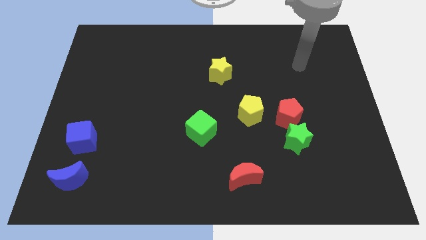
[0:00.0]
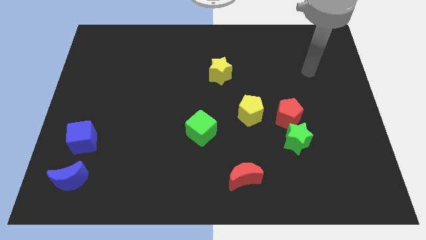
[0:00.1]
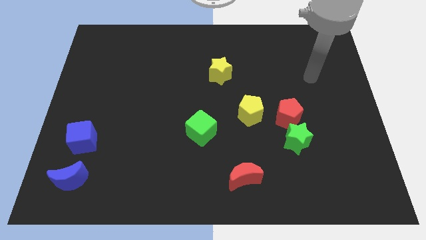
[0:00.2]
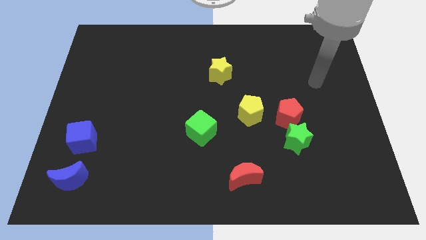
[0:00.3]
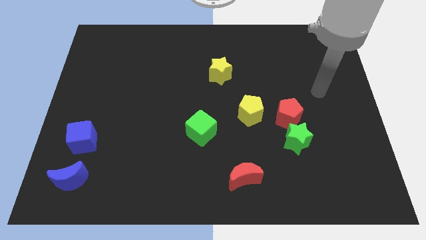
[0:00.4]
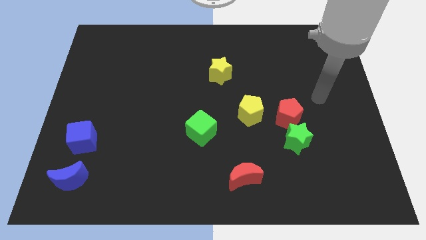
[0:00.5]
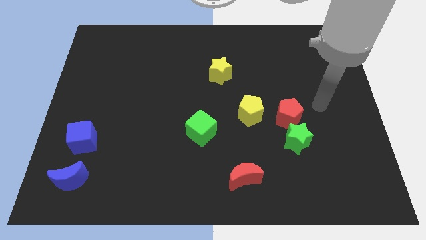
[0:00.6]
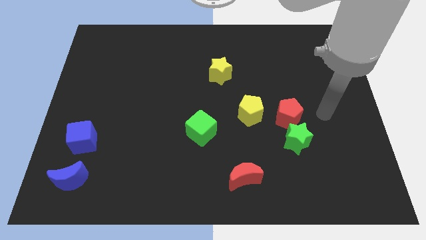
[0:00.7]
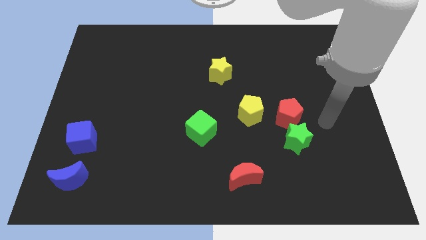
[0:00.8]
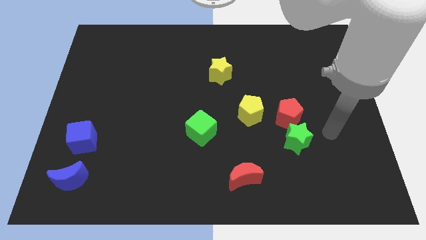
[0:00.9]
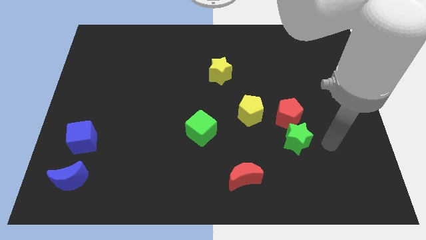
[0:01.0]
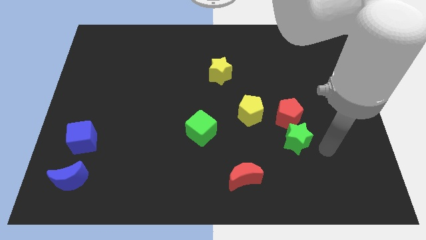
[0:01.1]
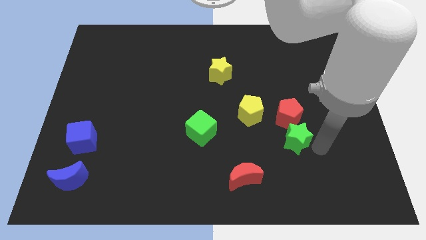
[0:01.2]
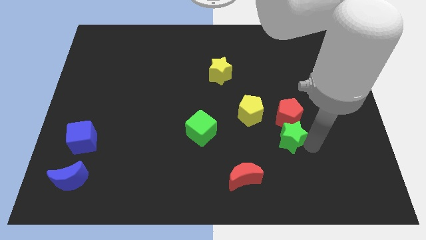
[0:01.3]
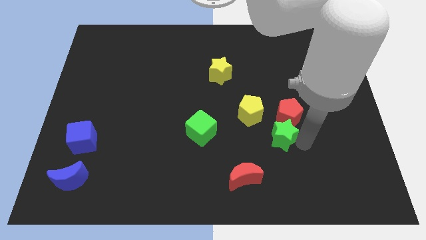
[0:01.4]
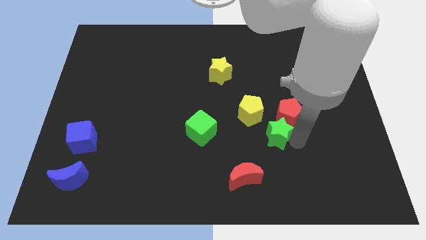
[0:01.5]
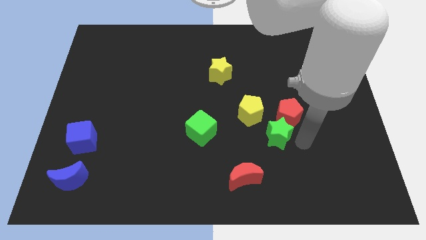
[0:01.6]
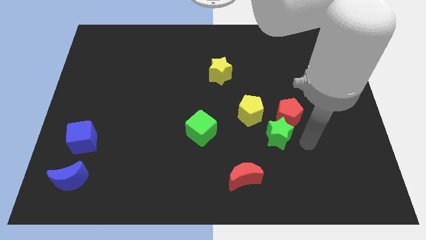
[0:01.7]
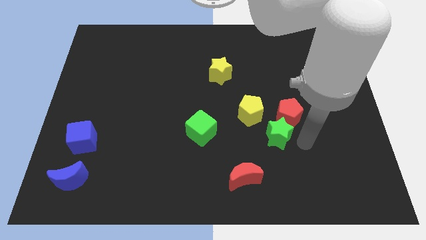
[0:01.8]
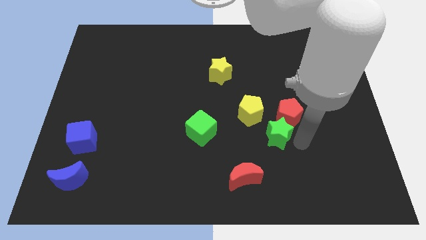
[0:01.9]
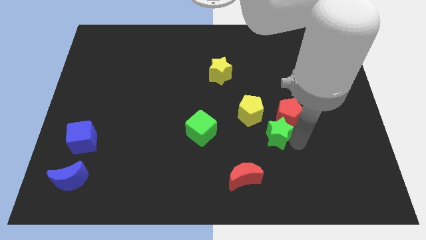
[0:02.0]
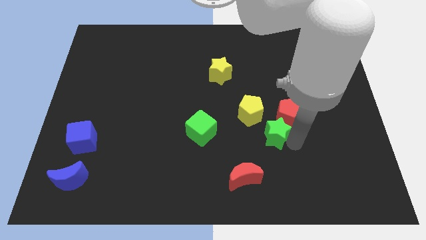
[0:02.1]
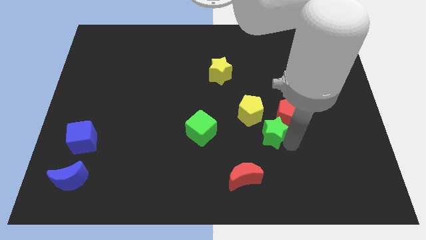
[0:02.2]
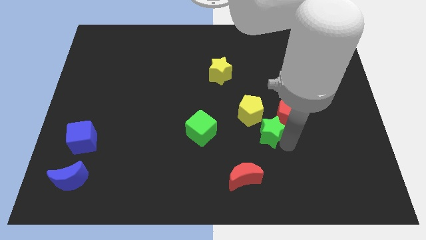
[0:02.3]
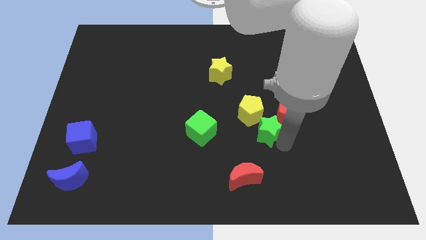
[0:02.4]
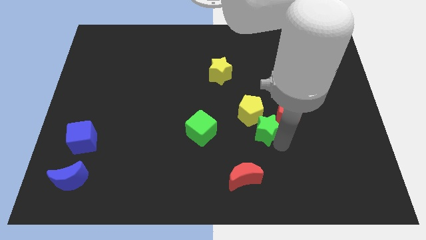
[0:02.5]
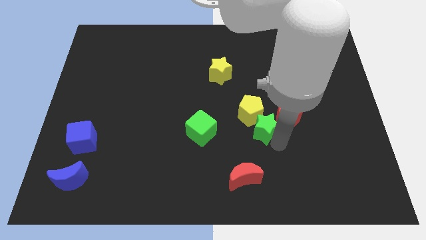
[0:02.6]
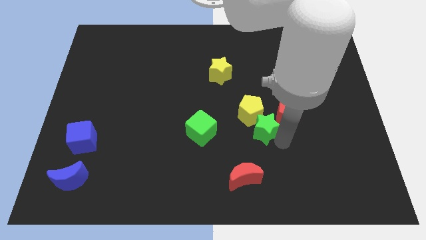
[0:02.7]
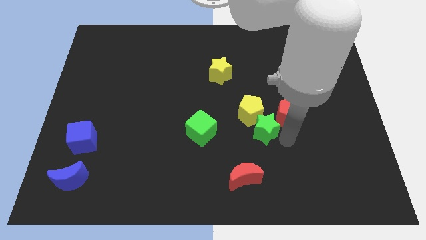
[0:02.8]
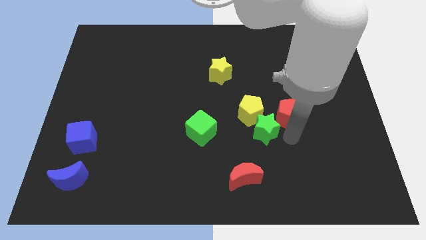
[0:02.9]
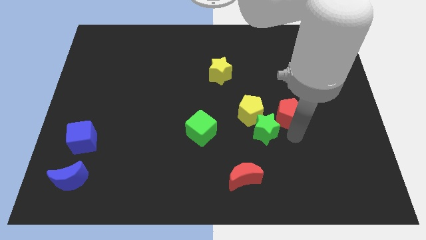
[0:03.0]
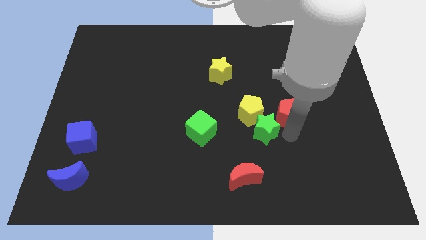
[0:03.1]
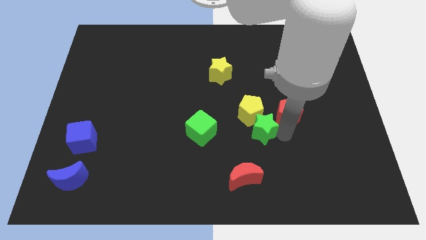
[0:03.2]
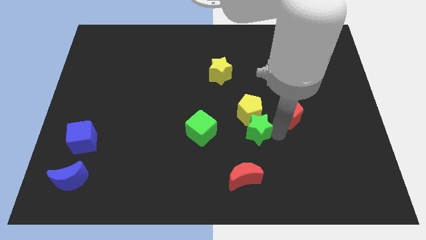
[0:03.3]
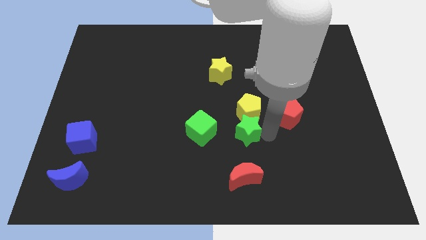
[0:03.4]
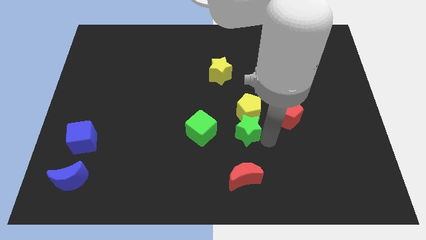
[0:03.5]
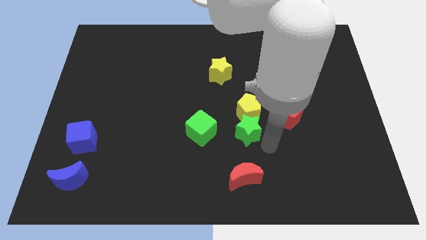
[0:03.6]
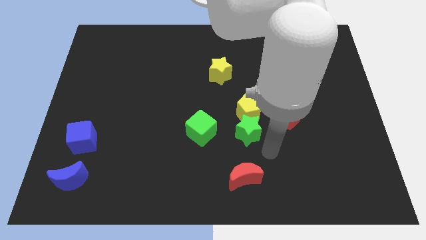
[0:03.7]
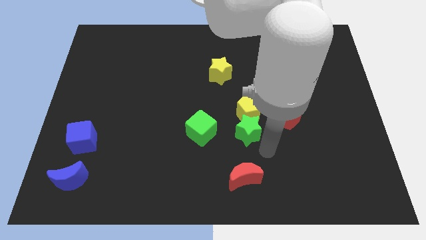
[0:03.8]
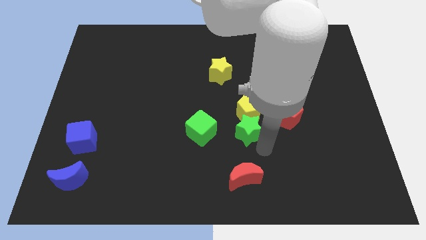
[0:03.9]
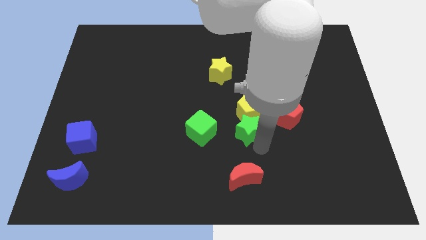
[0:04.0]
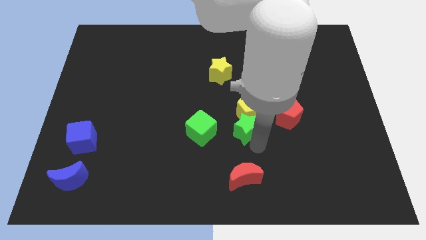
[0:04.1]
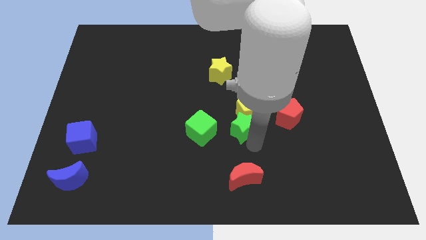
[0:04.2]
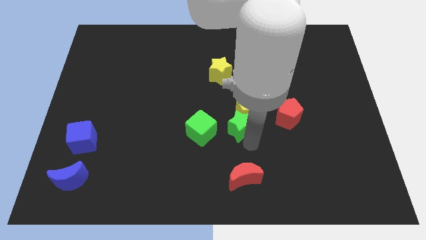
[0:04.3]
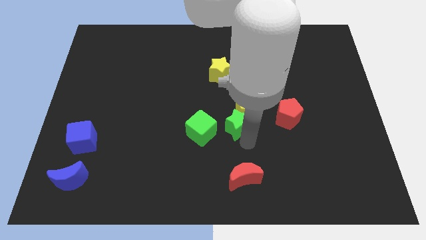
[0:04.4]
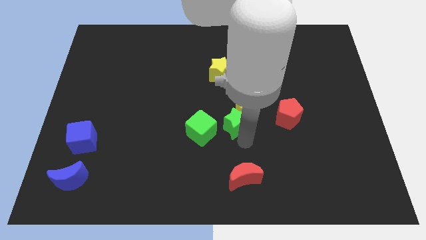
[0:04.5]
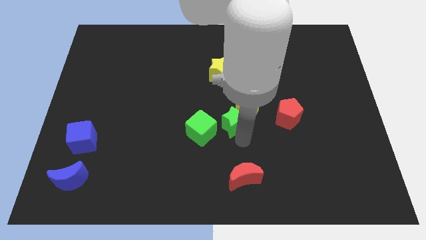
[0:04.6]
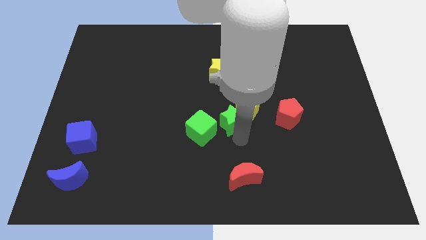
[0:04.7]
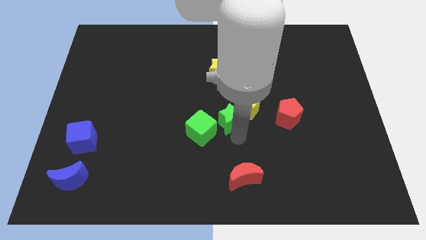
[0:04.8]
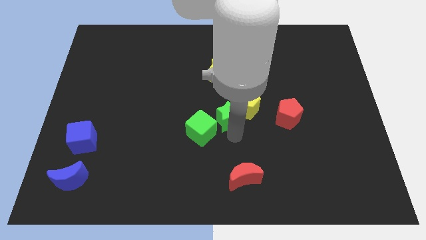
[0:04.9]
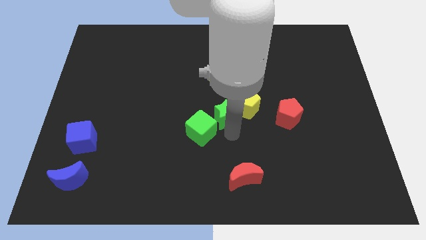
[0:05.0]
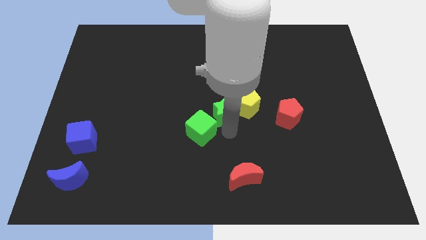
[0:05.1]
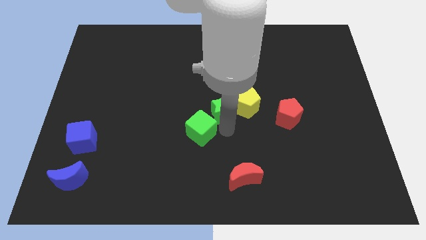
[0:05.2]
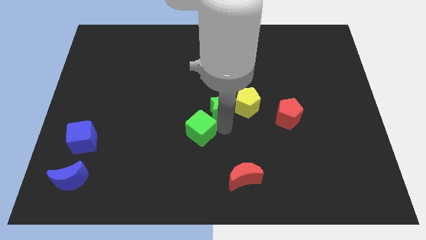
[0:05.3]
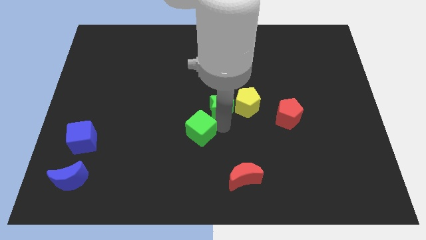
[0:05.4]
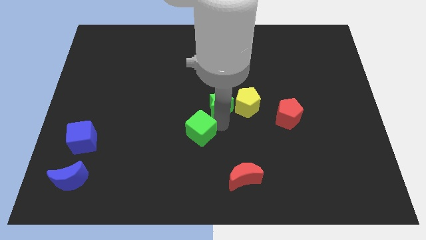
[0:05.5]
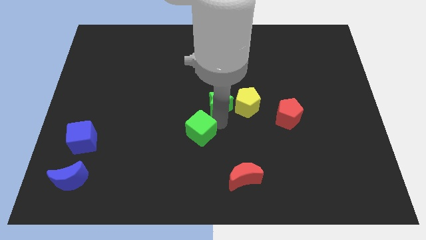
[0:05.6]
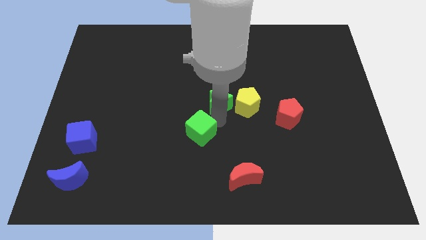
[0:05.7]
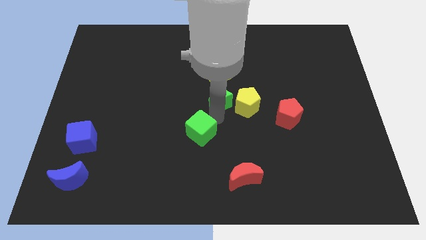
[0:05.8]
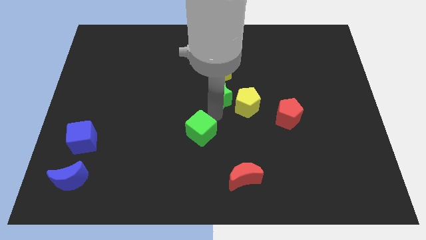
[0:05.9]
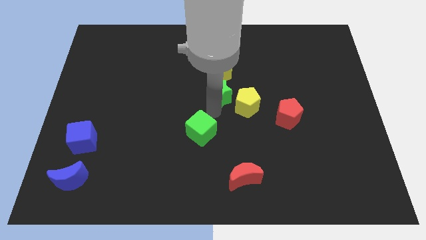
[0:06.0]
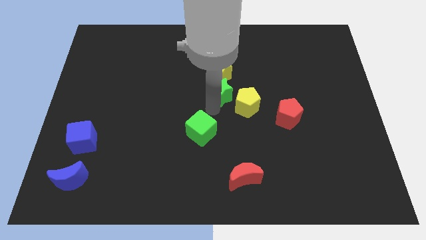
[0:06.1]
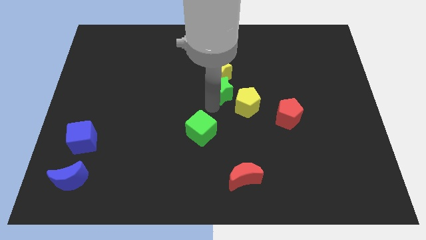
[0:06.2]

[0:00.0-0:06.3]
move the green star to the yellow star

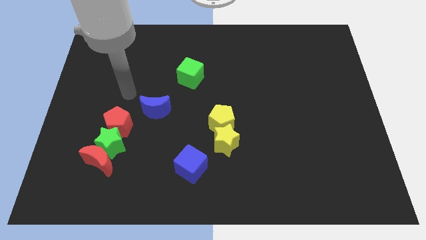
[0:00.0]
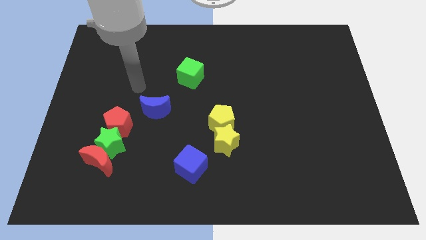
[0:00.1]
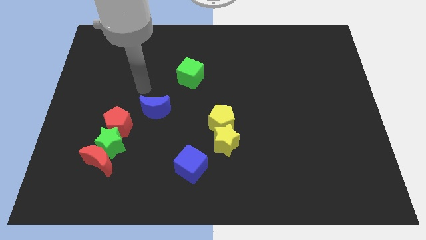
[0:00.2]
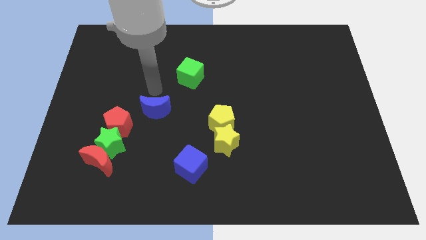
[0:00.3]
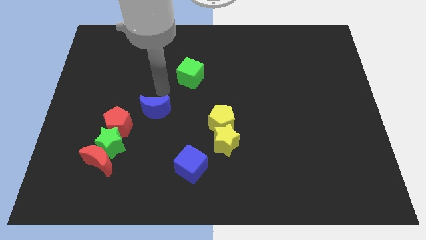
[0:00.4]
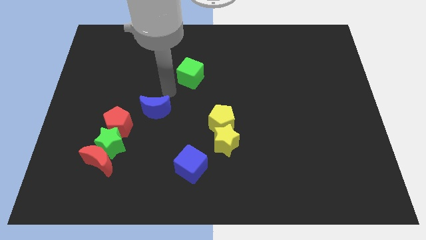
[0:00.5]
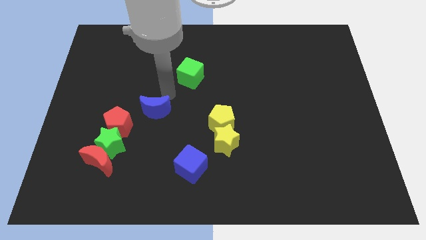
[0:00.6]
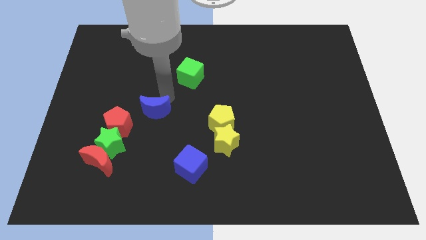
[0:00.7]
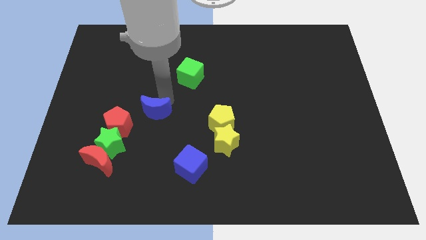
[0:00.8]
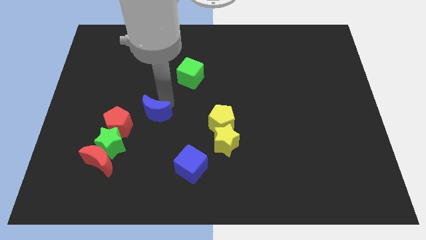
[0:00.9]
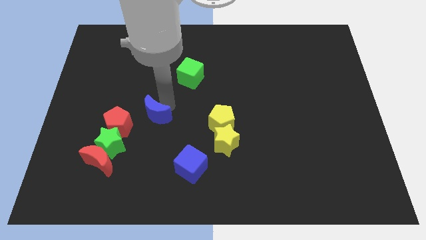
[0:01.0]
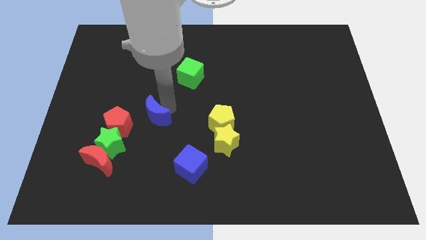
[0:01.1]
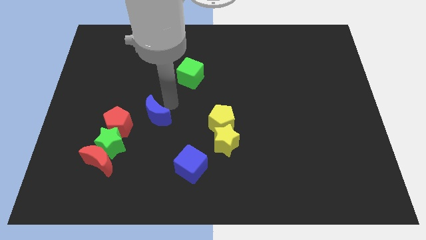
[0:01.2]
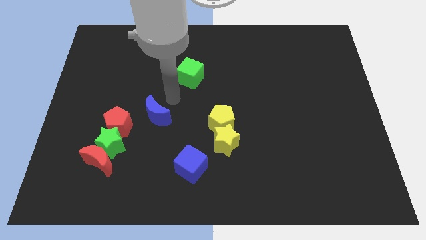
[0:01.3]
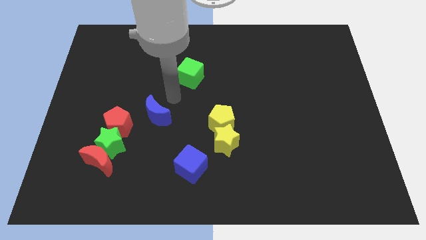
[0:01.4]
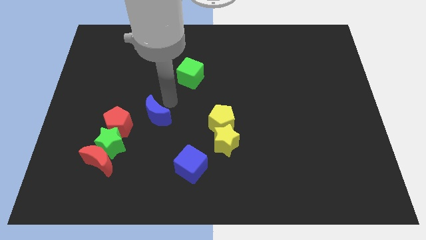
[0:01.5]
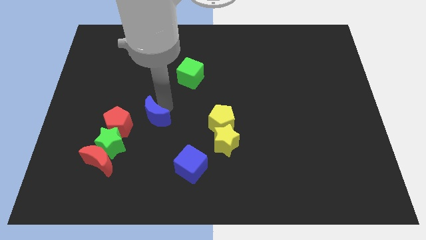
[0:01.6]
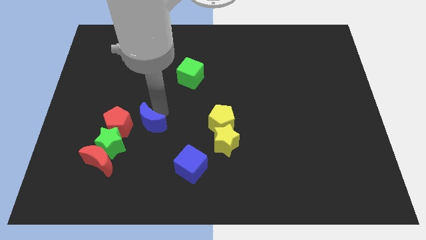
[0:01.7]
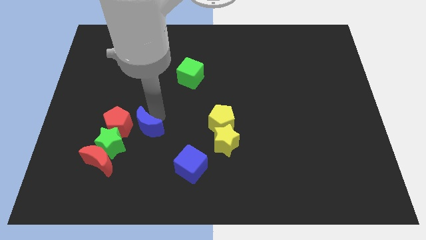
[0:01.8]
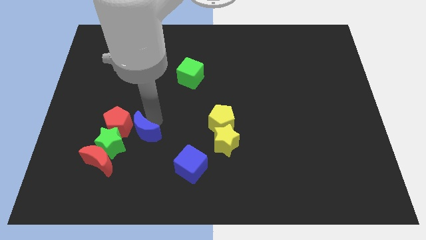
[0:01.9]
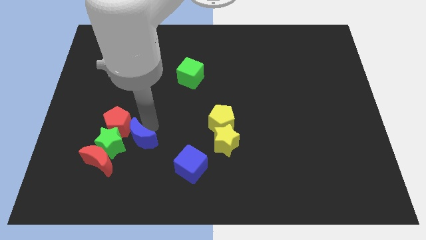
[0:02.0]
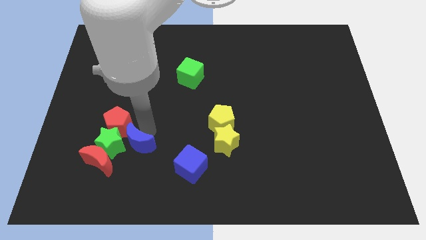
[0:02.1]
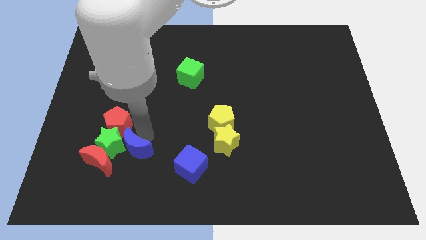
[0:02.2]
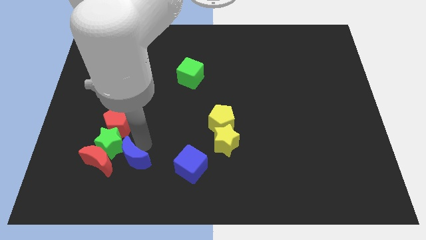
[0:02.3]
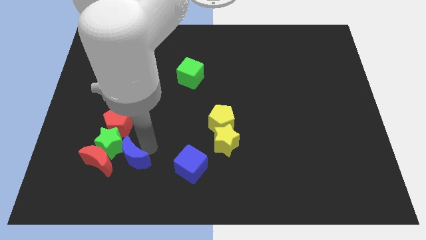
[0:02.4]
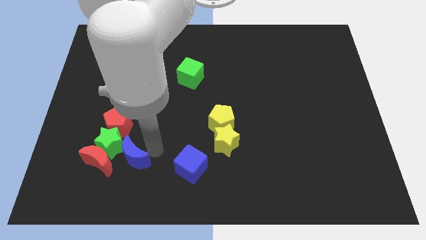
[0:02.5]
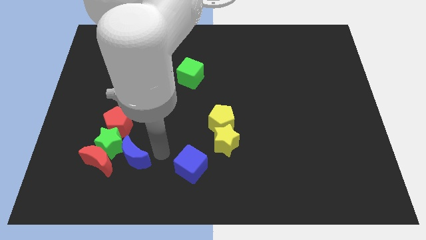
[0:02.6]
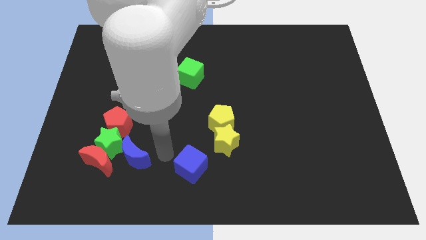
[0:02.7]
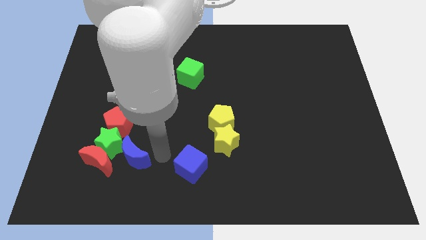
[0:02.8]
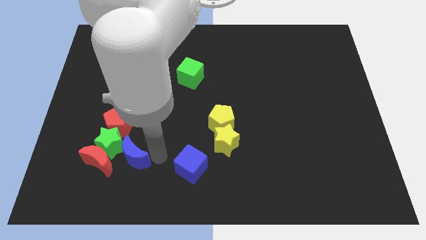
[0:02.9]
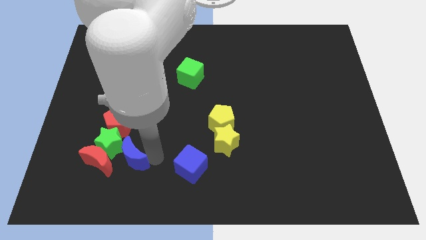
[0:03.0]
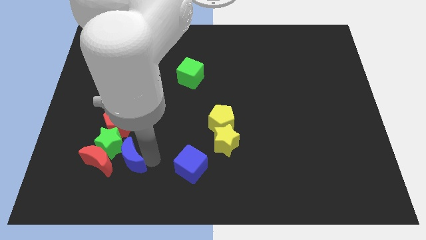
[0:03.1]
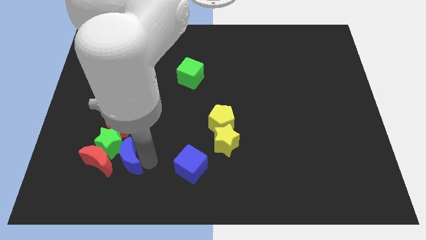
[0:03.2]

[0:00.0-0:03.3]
put the blue moon to the red moon
